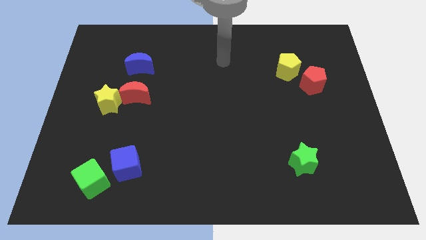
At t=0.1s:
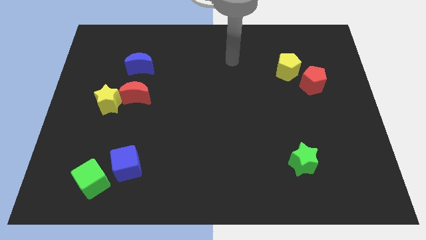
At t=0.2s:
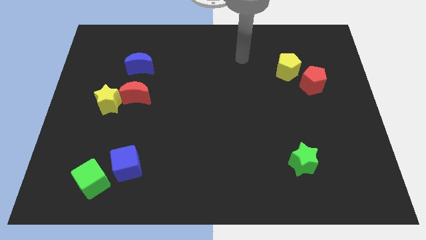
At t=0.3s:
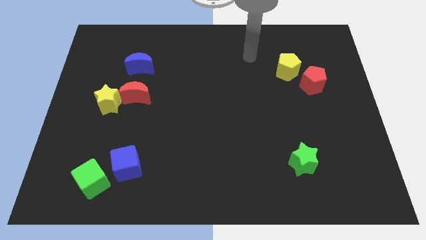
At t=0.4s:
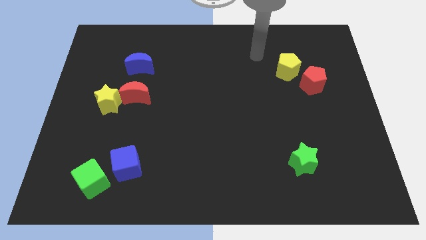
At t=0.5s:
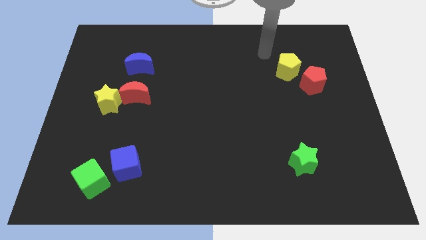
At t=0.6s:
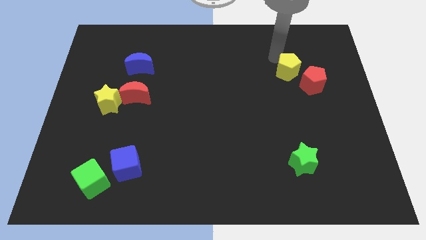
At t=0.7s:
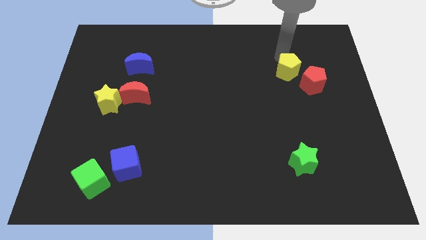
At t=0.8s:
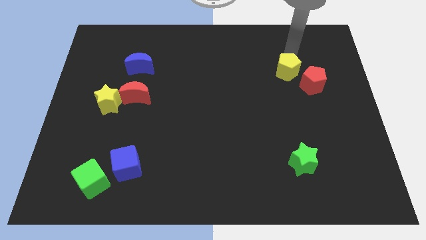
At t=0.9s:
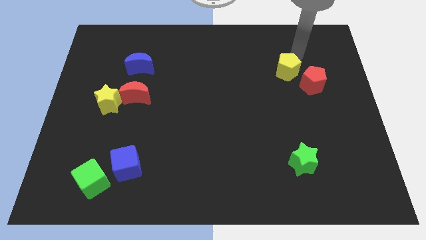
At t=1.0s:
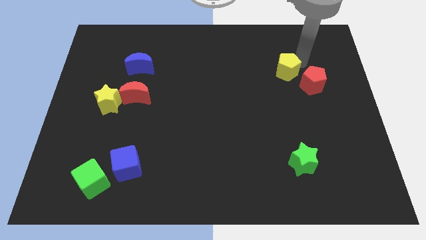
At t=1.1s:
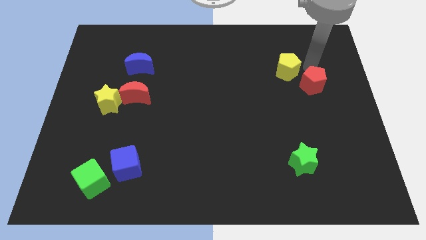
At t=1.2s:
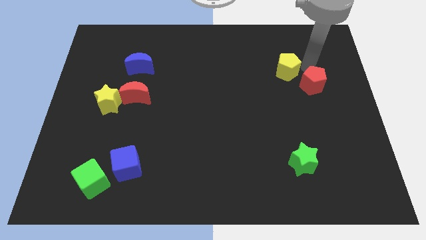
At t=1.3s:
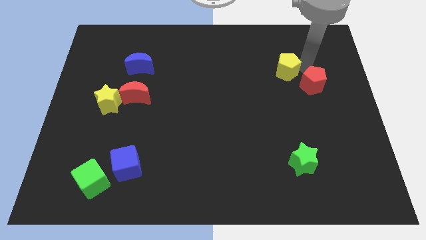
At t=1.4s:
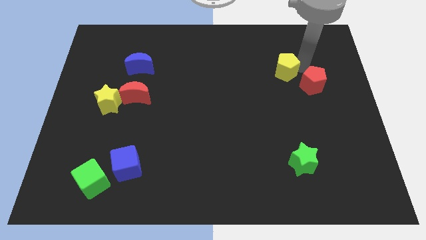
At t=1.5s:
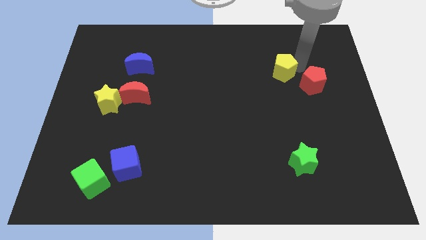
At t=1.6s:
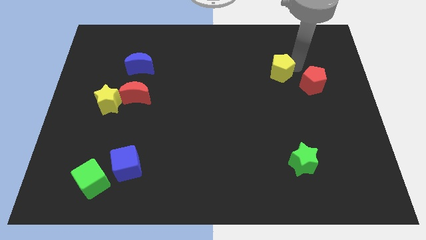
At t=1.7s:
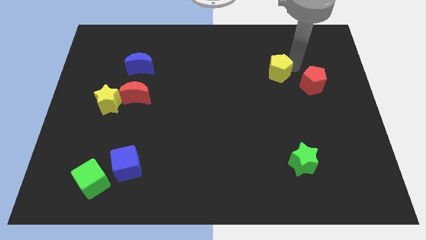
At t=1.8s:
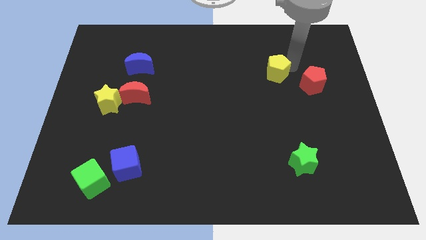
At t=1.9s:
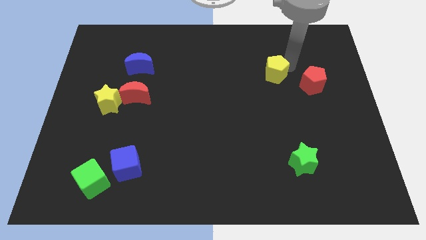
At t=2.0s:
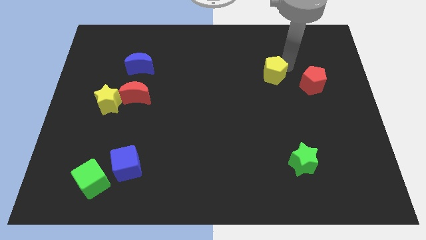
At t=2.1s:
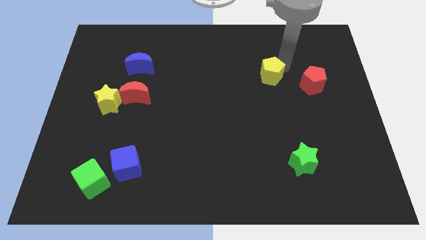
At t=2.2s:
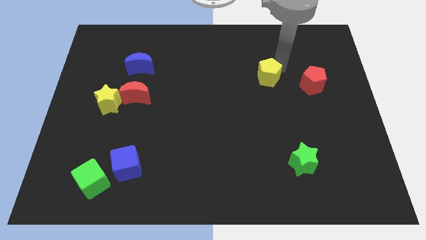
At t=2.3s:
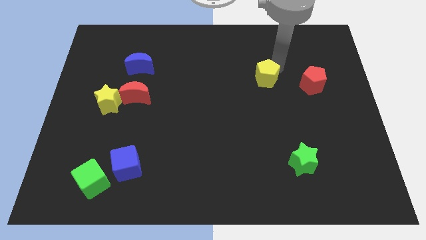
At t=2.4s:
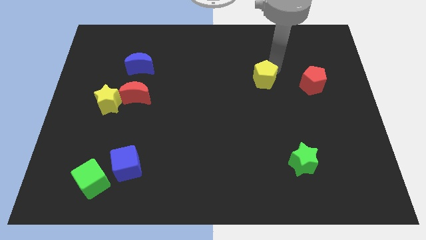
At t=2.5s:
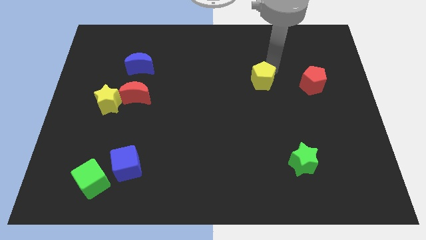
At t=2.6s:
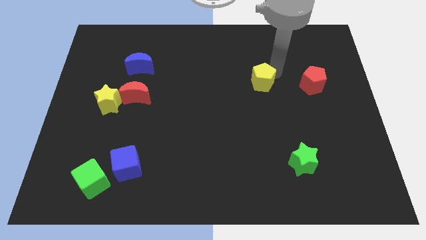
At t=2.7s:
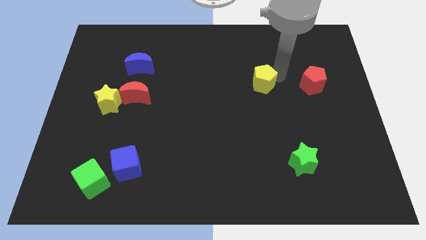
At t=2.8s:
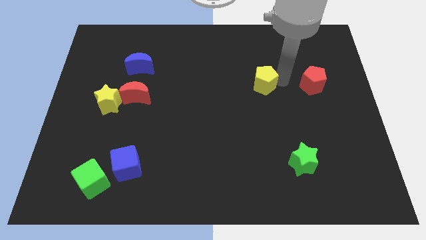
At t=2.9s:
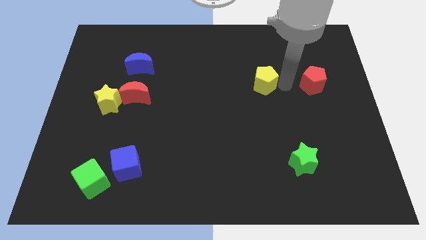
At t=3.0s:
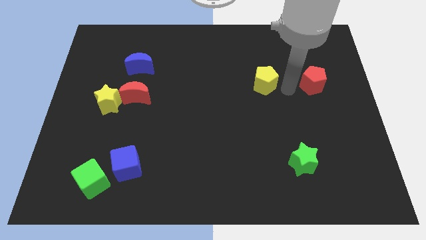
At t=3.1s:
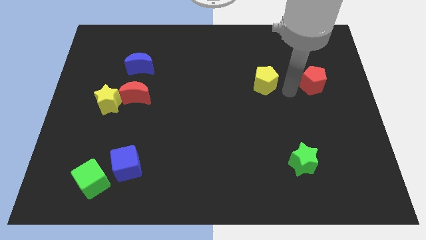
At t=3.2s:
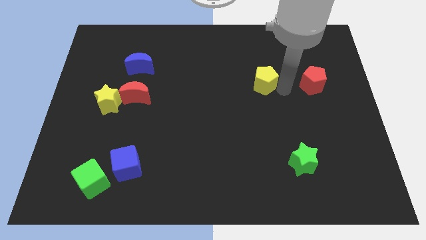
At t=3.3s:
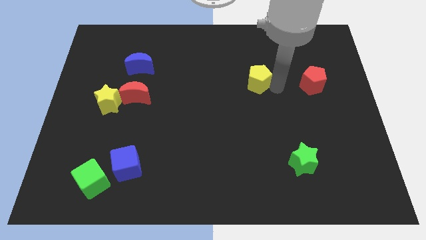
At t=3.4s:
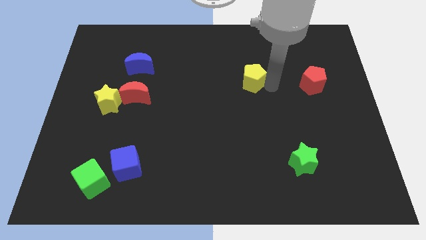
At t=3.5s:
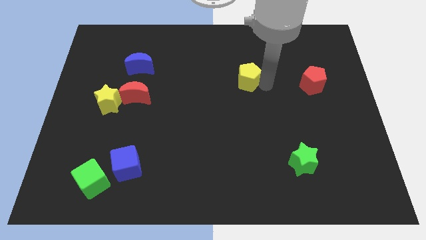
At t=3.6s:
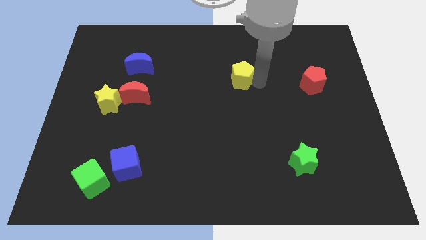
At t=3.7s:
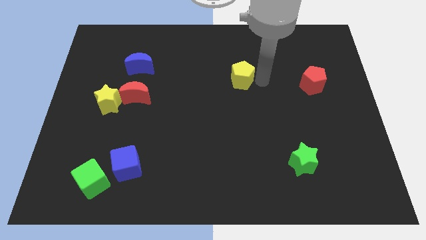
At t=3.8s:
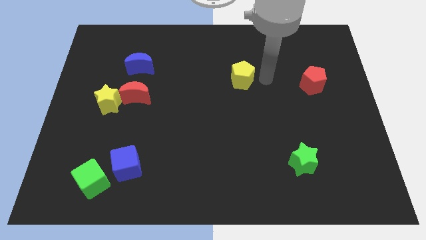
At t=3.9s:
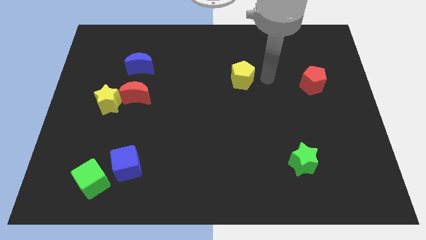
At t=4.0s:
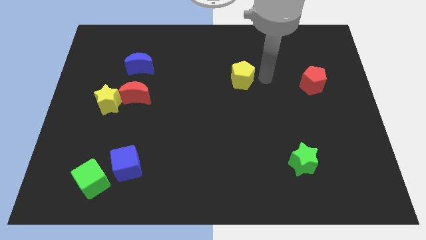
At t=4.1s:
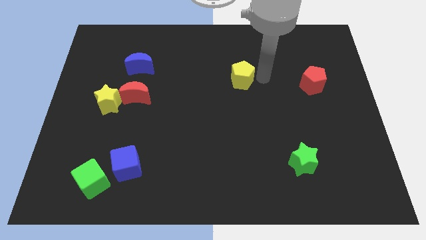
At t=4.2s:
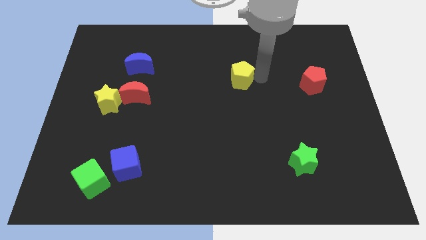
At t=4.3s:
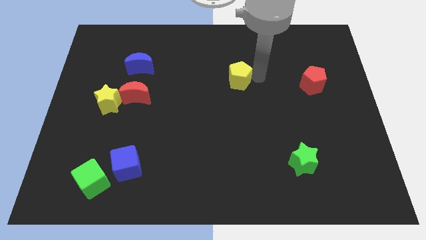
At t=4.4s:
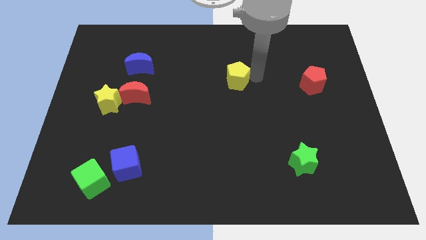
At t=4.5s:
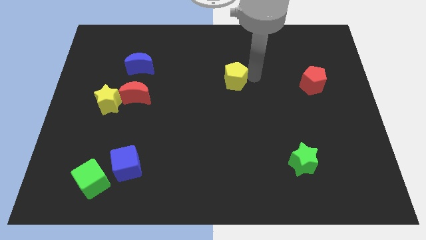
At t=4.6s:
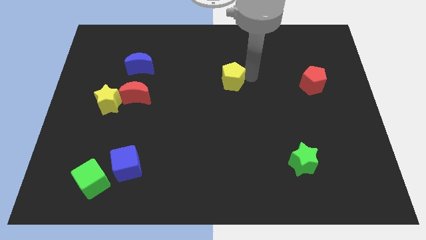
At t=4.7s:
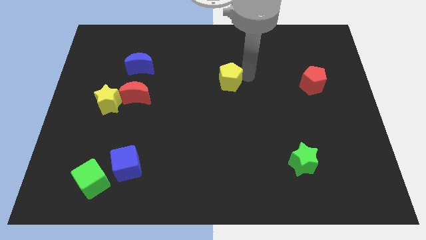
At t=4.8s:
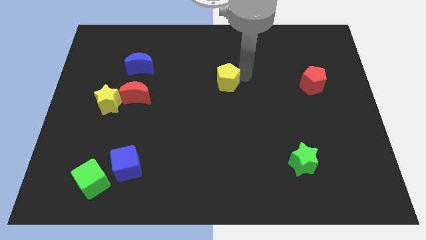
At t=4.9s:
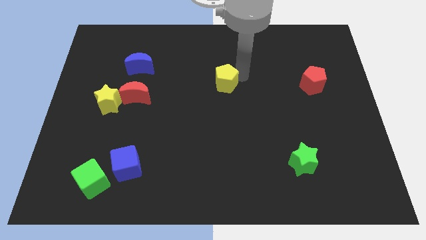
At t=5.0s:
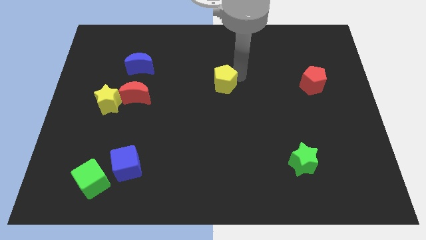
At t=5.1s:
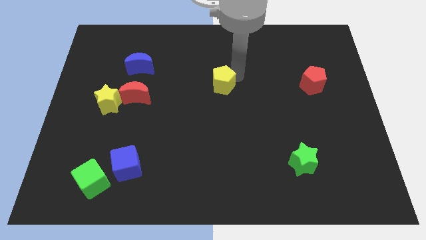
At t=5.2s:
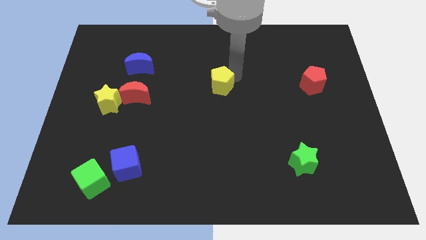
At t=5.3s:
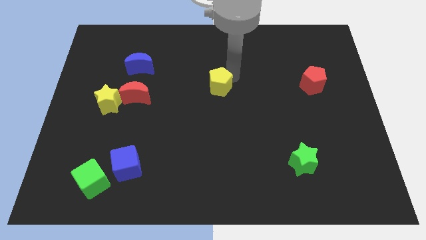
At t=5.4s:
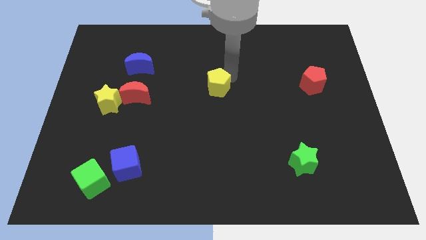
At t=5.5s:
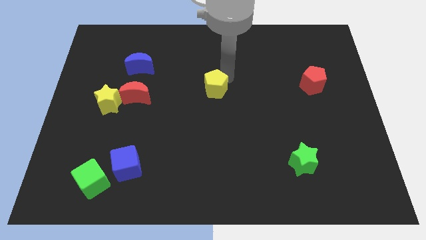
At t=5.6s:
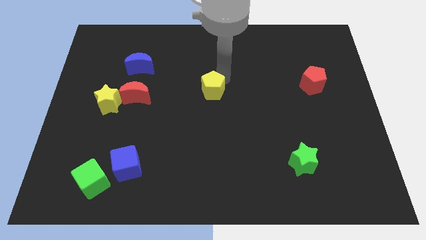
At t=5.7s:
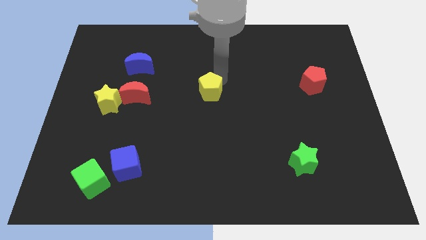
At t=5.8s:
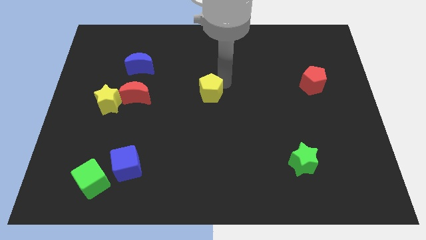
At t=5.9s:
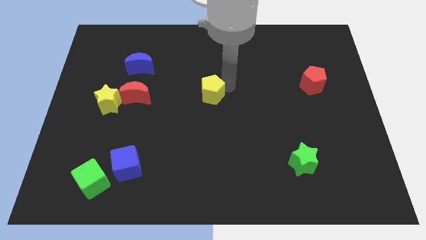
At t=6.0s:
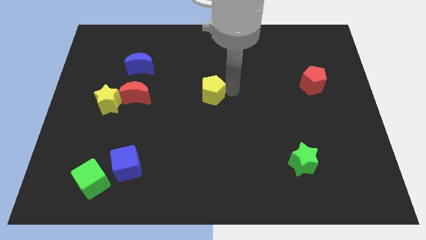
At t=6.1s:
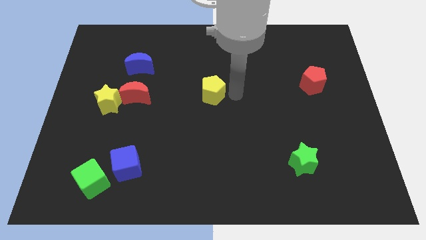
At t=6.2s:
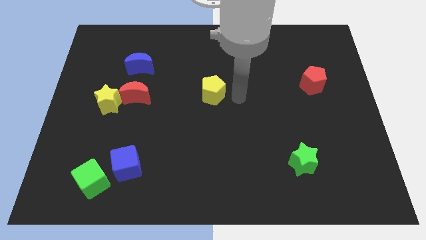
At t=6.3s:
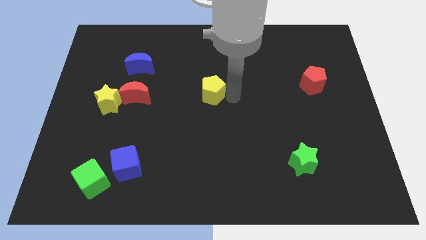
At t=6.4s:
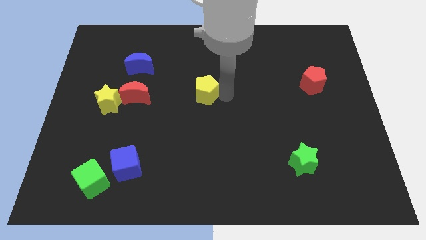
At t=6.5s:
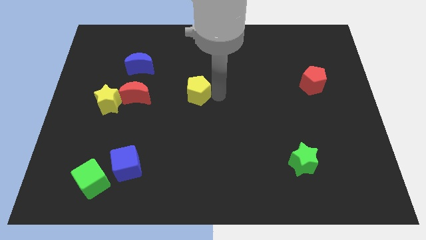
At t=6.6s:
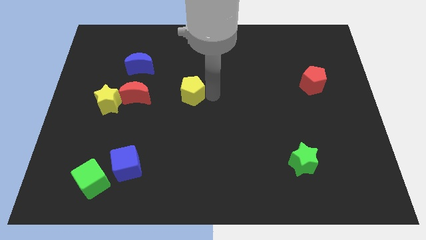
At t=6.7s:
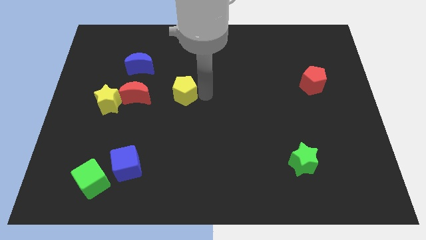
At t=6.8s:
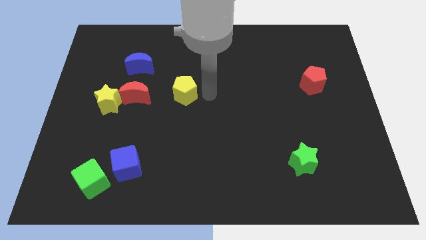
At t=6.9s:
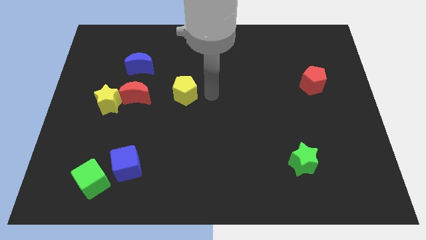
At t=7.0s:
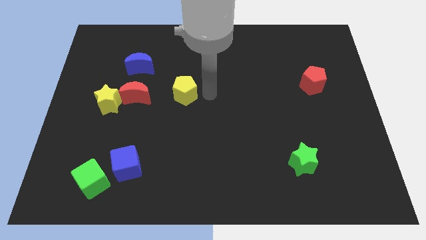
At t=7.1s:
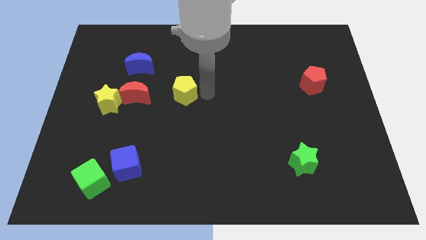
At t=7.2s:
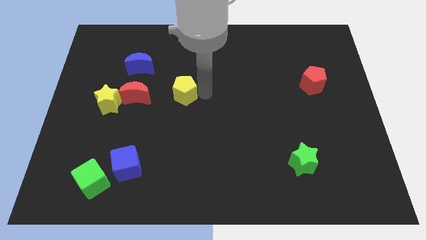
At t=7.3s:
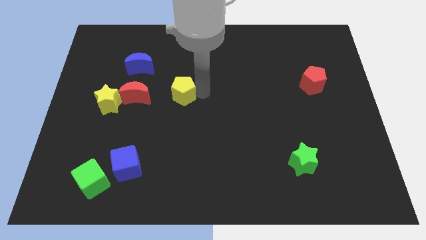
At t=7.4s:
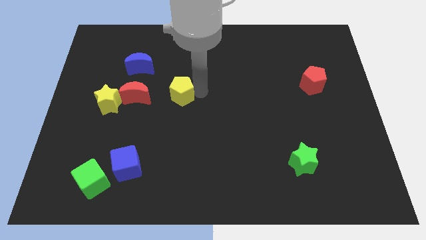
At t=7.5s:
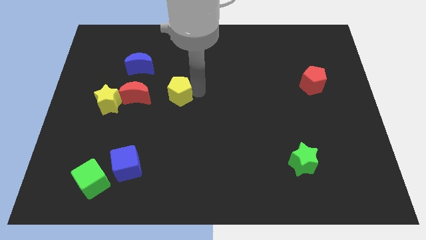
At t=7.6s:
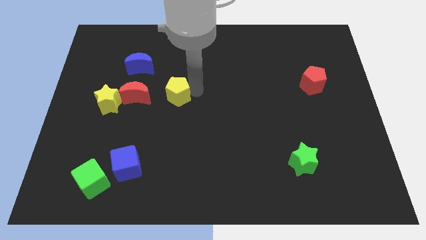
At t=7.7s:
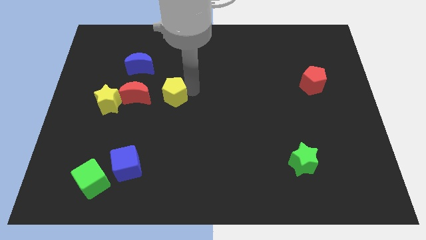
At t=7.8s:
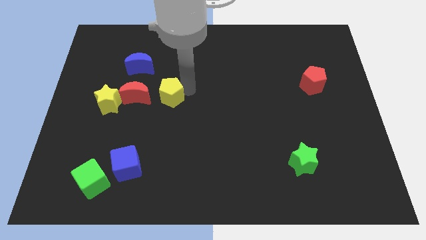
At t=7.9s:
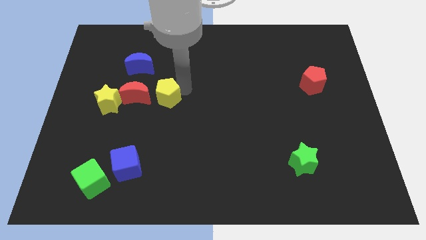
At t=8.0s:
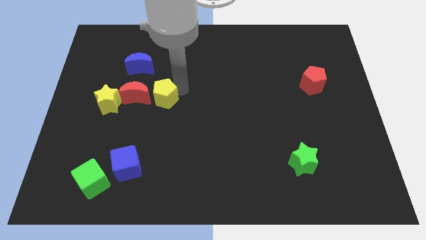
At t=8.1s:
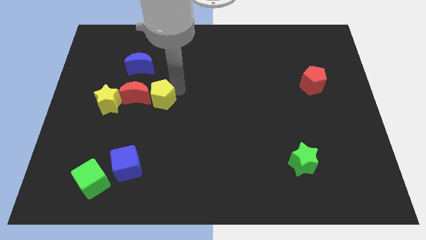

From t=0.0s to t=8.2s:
push the yellow pentagon next to the red moon
